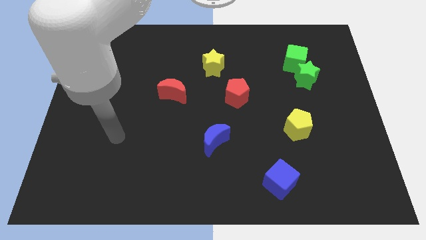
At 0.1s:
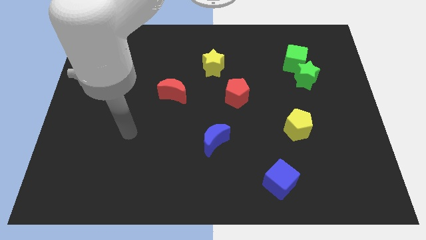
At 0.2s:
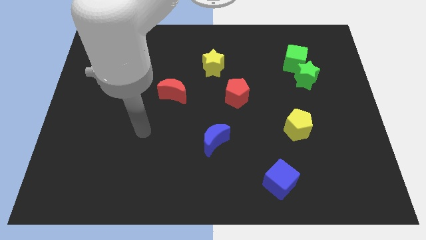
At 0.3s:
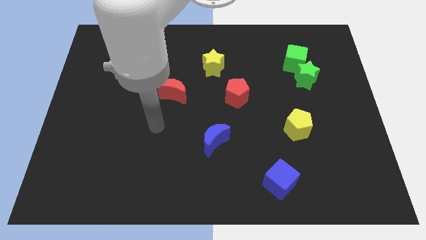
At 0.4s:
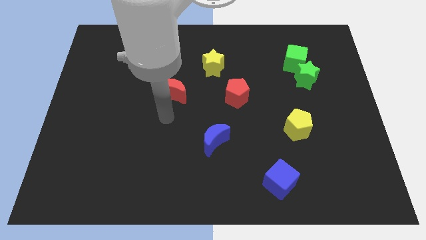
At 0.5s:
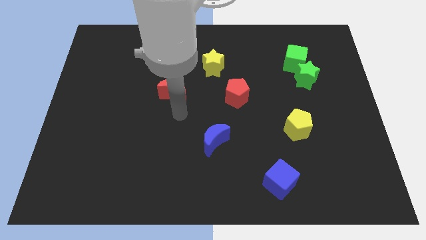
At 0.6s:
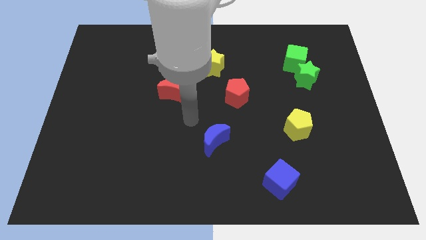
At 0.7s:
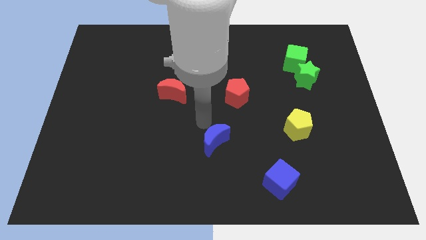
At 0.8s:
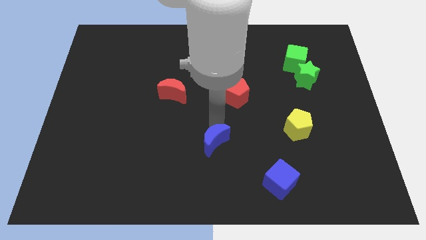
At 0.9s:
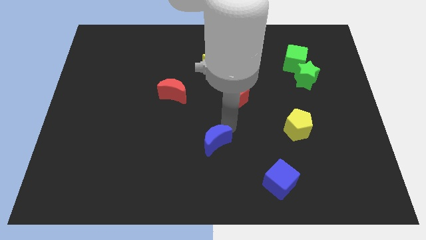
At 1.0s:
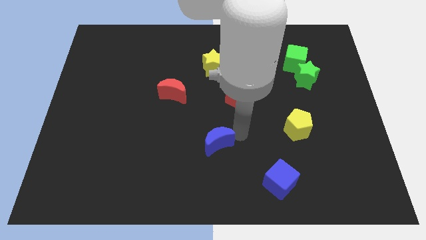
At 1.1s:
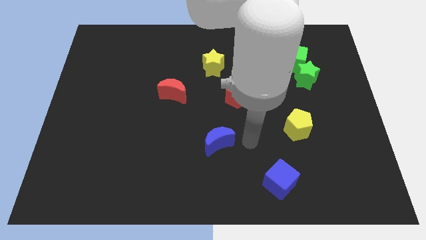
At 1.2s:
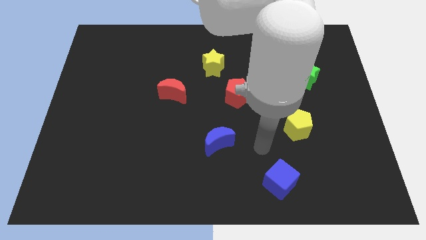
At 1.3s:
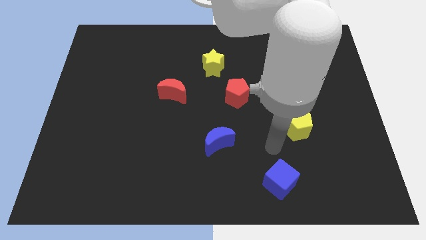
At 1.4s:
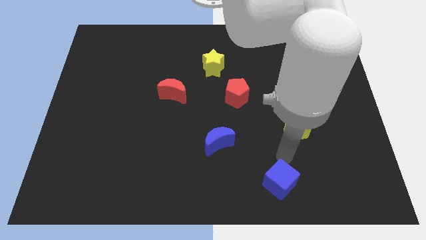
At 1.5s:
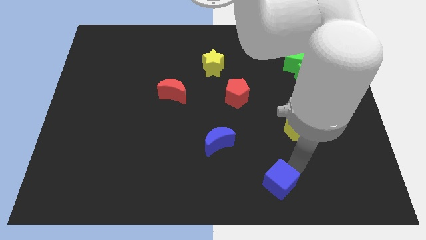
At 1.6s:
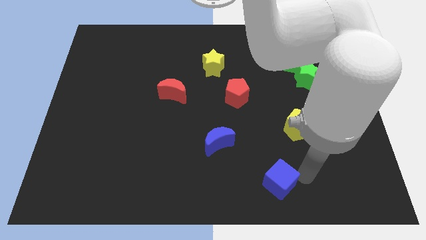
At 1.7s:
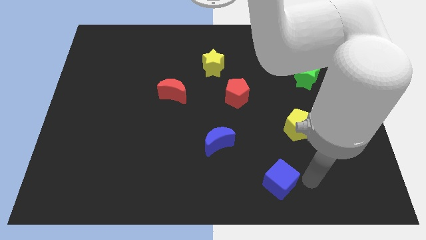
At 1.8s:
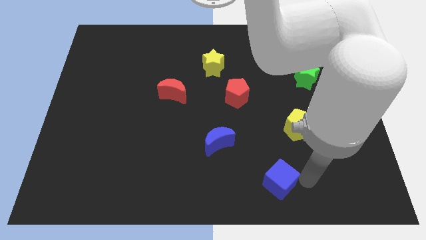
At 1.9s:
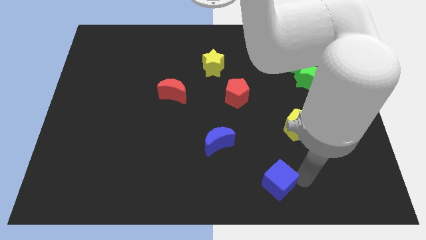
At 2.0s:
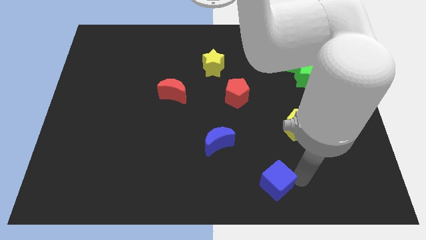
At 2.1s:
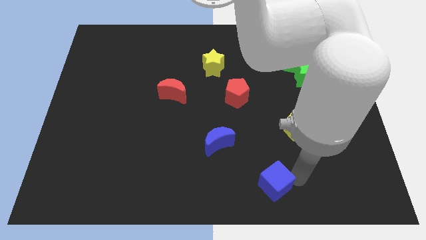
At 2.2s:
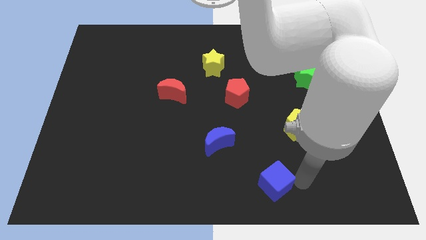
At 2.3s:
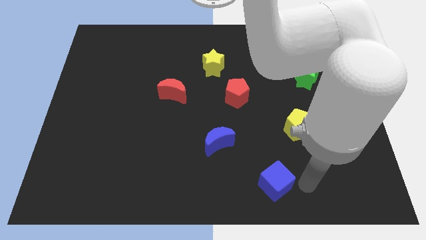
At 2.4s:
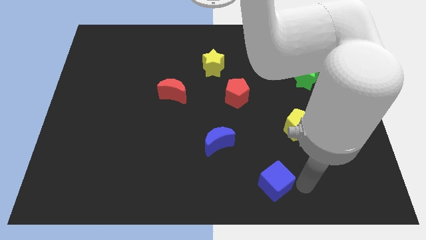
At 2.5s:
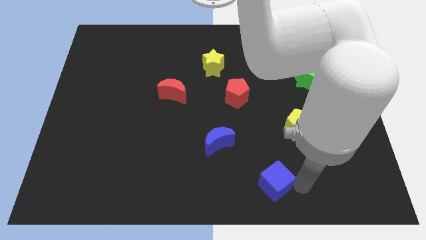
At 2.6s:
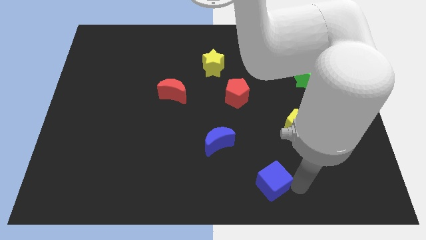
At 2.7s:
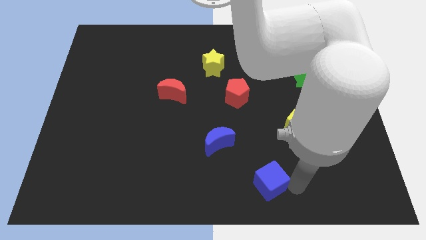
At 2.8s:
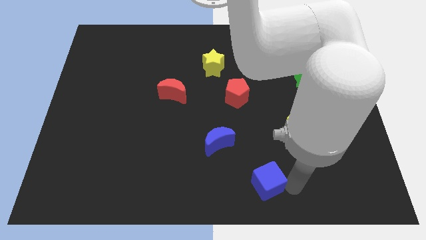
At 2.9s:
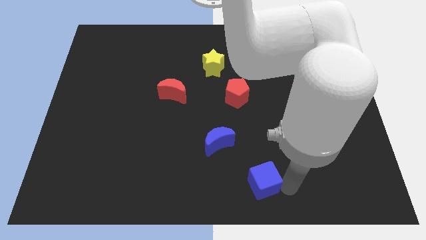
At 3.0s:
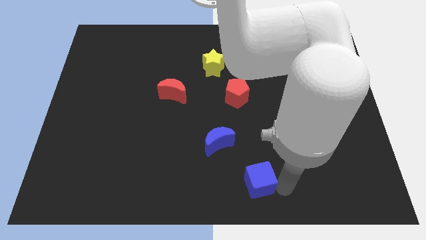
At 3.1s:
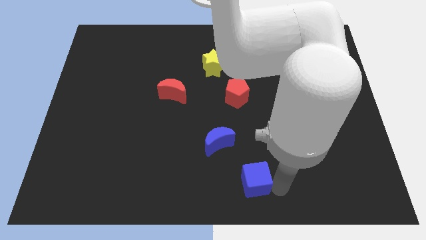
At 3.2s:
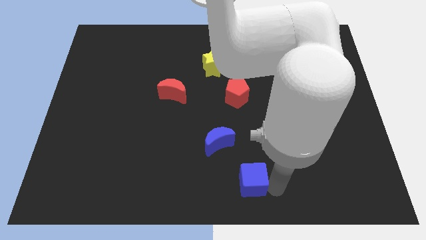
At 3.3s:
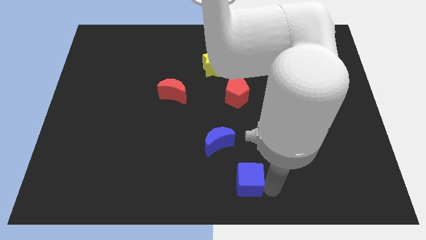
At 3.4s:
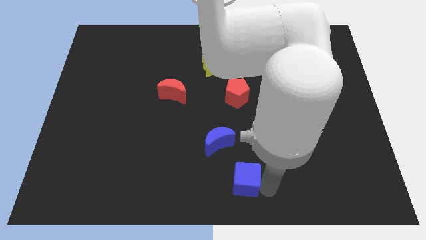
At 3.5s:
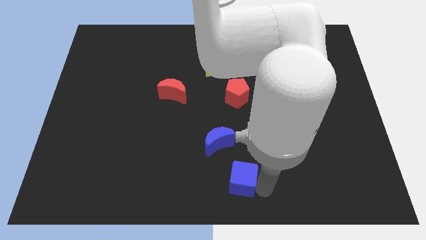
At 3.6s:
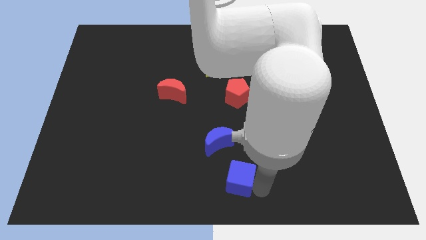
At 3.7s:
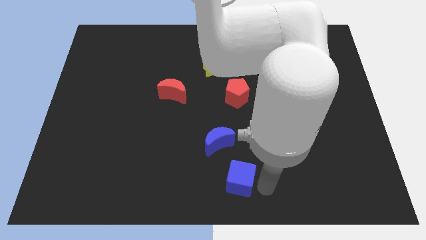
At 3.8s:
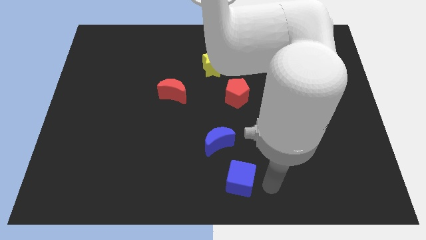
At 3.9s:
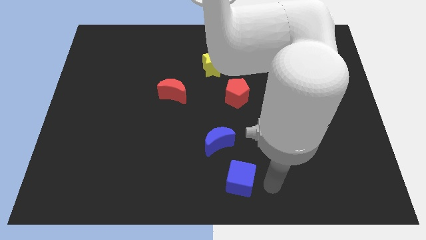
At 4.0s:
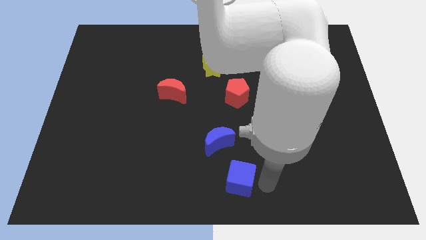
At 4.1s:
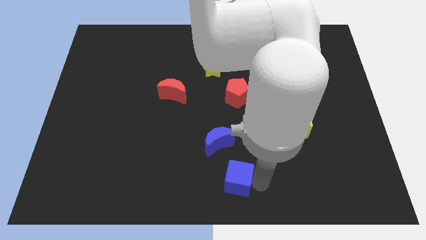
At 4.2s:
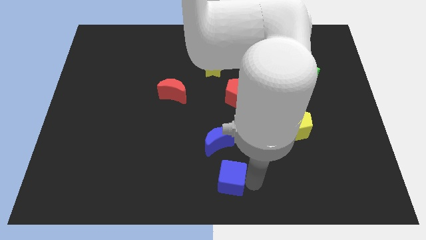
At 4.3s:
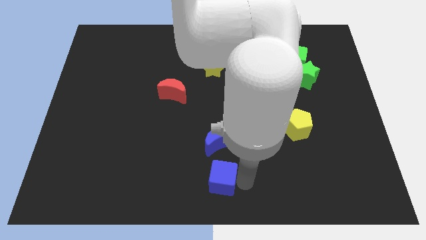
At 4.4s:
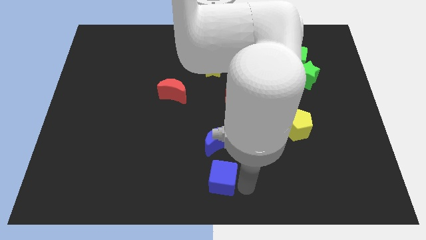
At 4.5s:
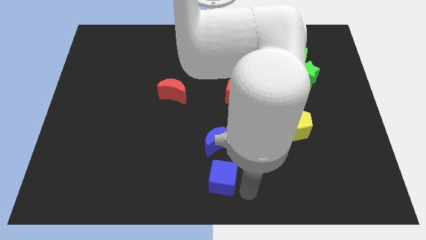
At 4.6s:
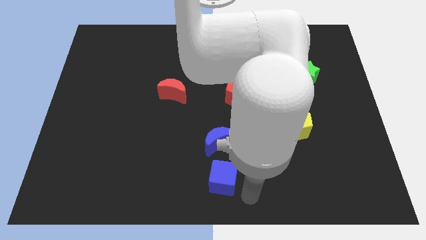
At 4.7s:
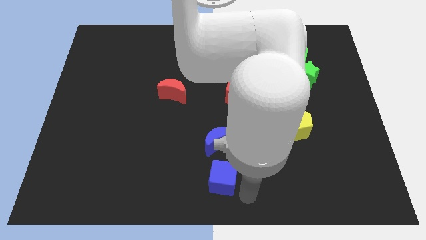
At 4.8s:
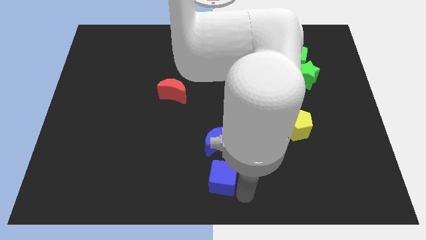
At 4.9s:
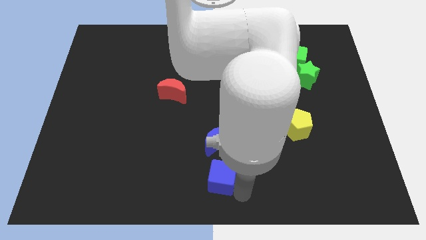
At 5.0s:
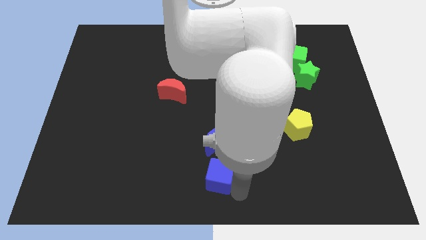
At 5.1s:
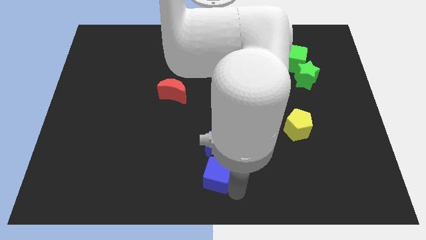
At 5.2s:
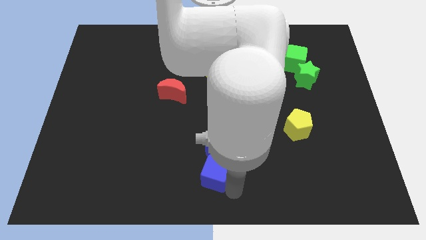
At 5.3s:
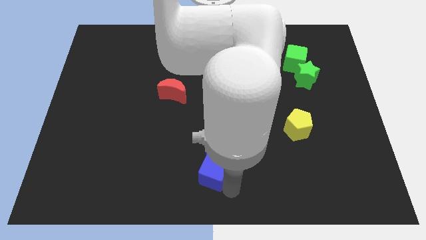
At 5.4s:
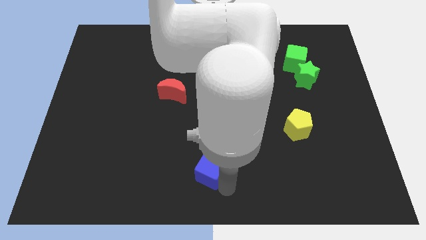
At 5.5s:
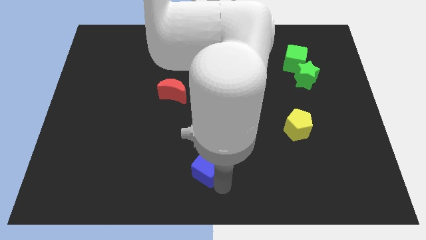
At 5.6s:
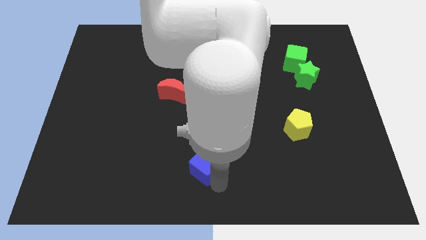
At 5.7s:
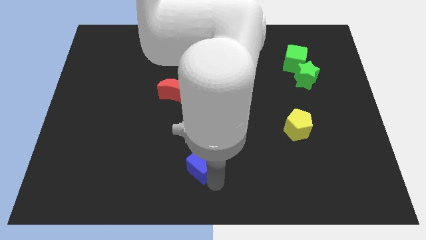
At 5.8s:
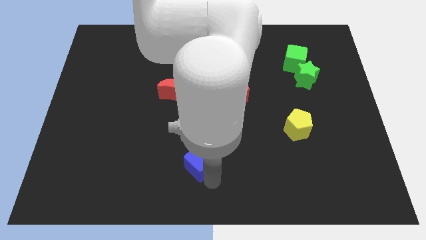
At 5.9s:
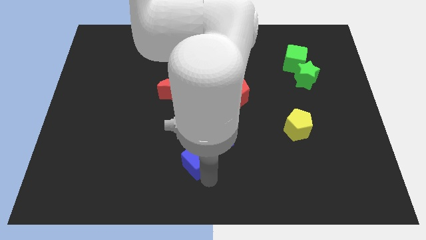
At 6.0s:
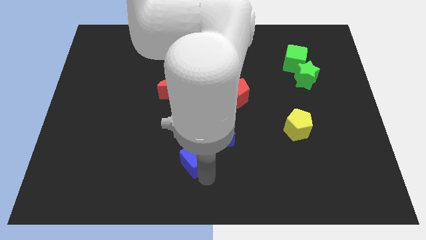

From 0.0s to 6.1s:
push the blue cube left of the blue moon

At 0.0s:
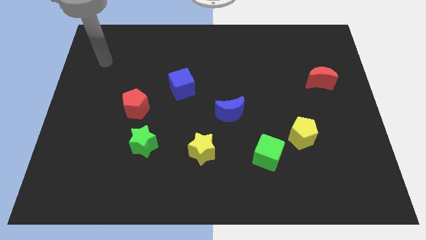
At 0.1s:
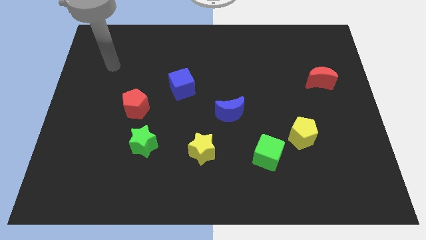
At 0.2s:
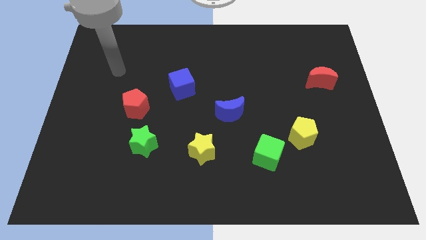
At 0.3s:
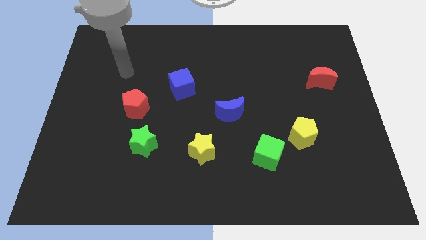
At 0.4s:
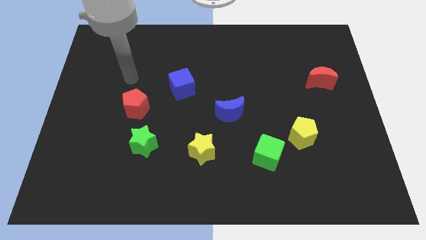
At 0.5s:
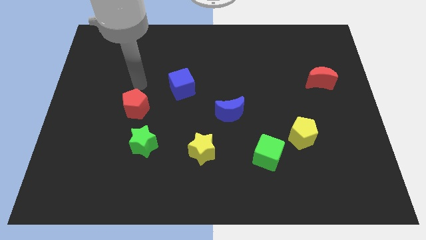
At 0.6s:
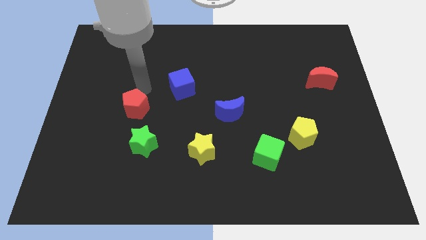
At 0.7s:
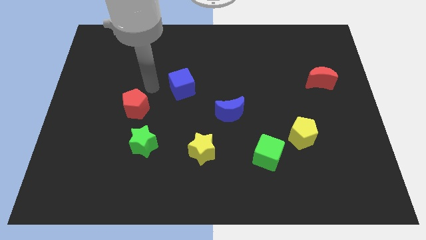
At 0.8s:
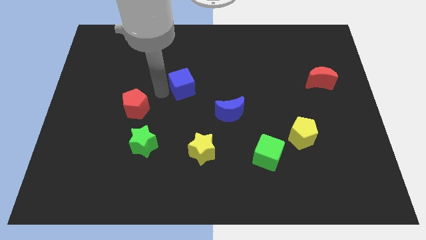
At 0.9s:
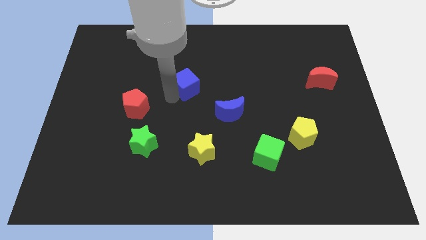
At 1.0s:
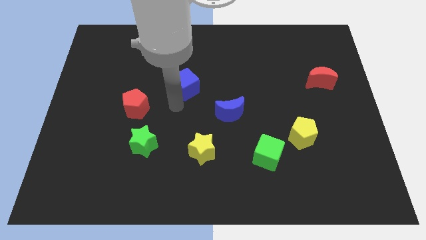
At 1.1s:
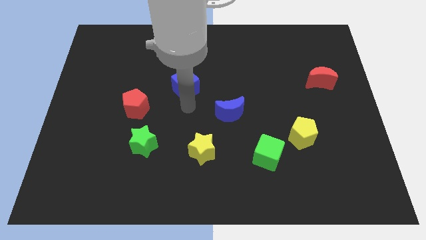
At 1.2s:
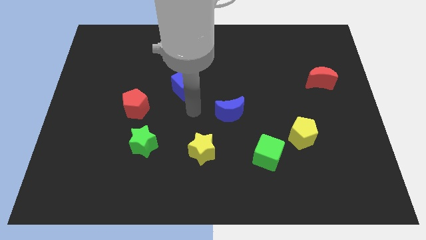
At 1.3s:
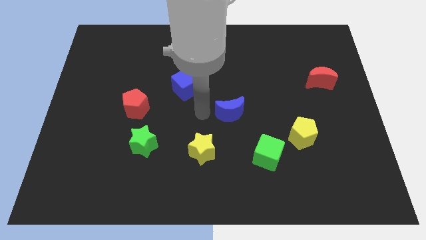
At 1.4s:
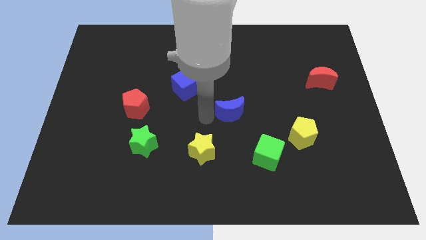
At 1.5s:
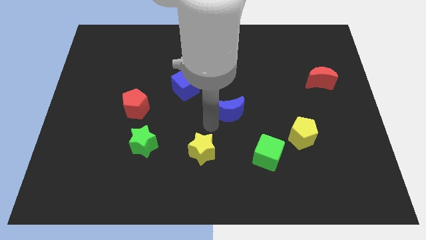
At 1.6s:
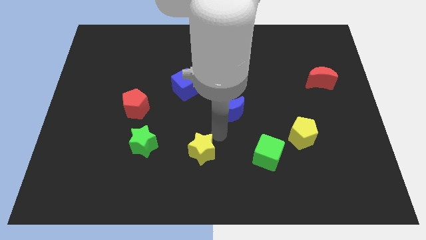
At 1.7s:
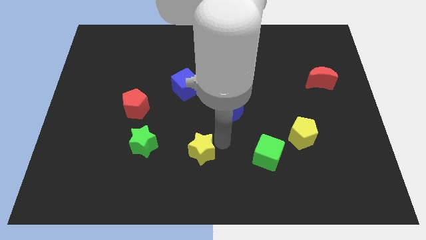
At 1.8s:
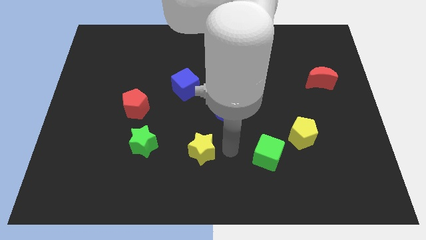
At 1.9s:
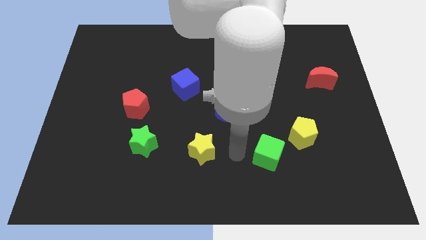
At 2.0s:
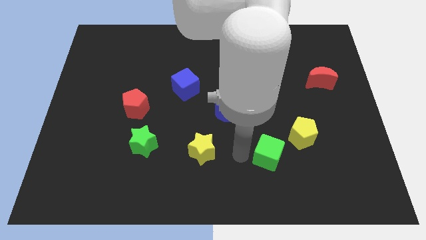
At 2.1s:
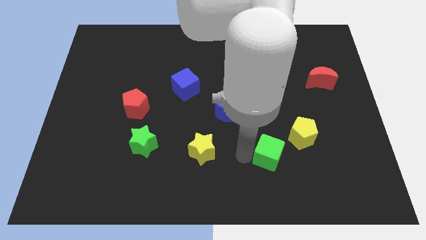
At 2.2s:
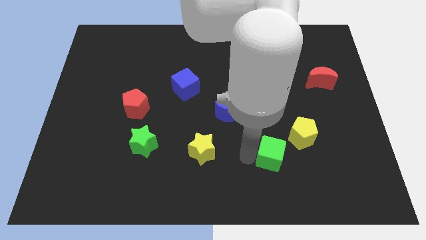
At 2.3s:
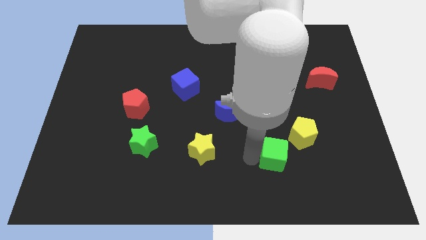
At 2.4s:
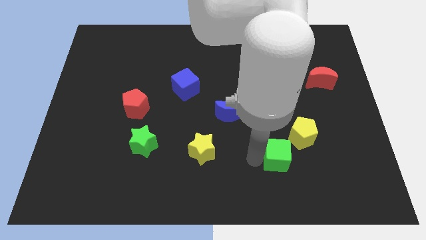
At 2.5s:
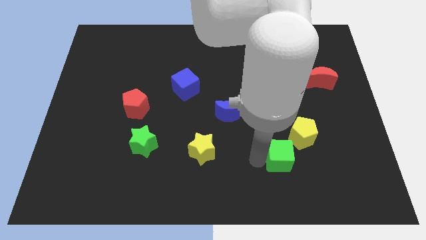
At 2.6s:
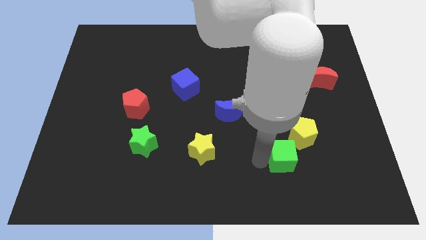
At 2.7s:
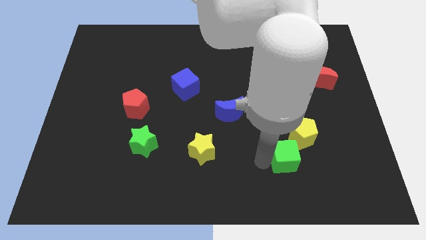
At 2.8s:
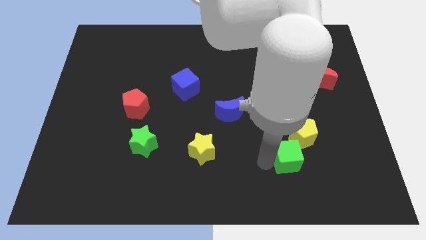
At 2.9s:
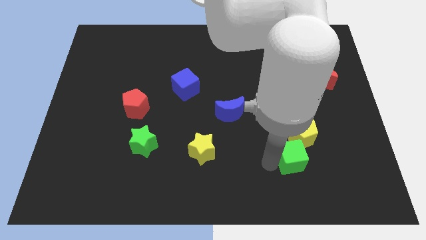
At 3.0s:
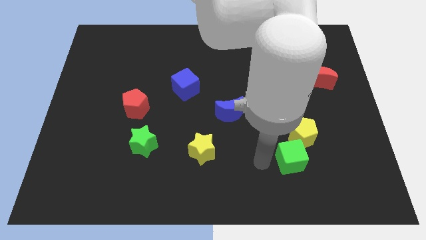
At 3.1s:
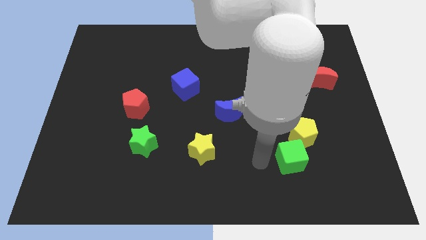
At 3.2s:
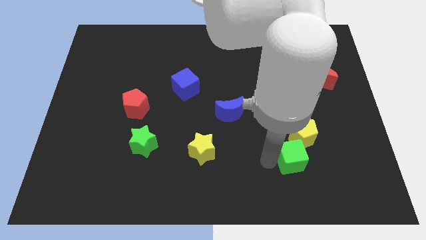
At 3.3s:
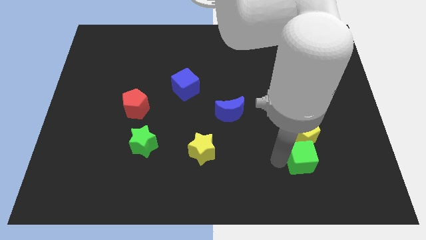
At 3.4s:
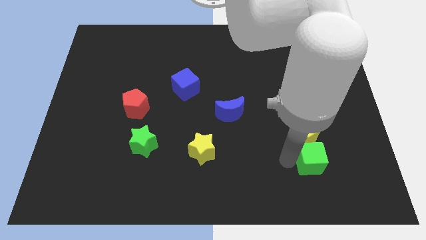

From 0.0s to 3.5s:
move the green cube to the bottom right of the yellow pentagon
